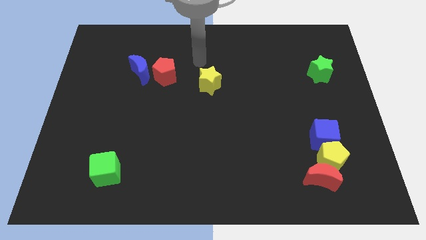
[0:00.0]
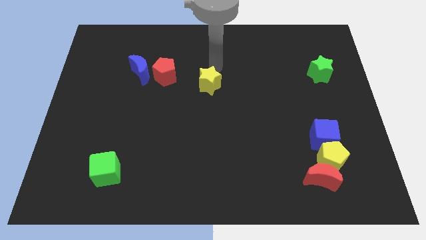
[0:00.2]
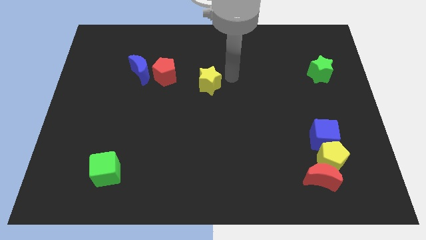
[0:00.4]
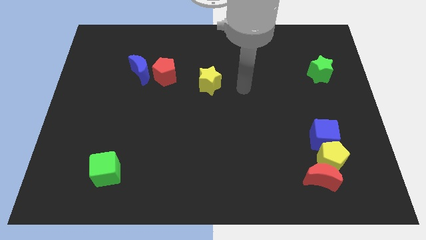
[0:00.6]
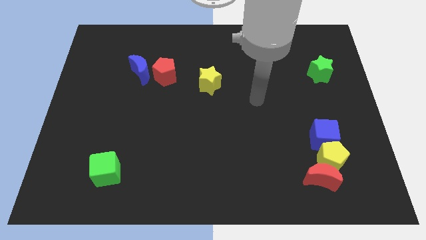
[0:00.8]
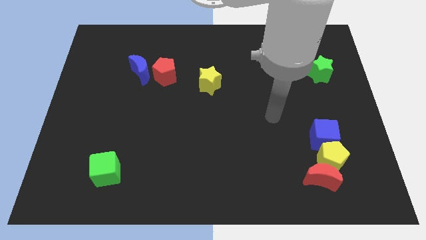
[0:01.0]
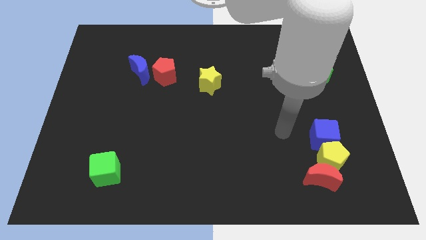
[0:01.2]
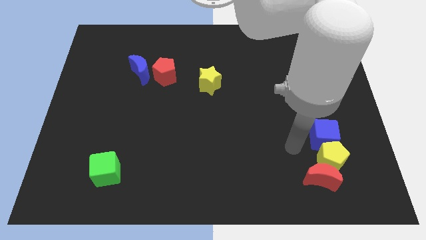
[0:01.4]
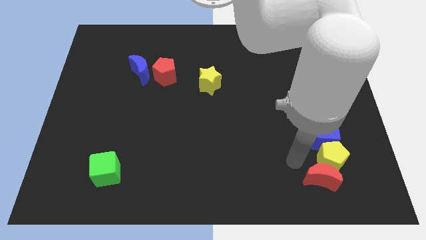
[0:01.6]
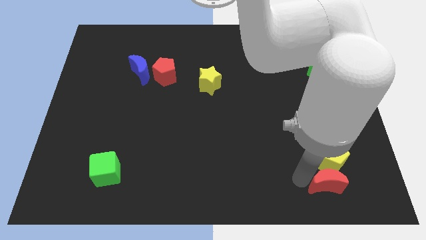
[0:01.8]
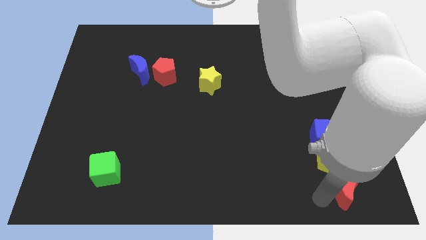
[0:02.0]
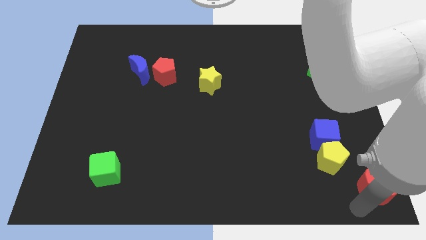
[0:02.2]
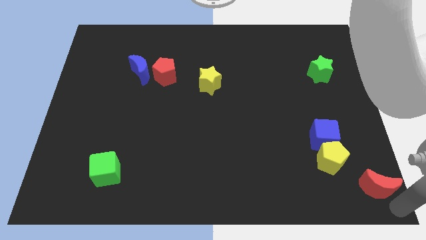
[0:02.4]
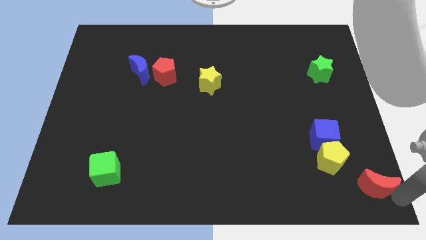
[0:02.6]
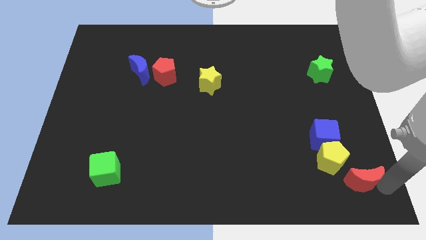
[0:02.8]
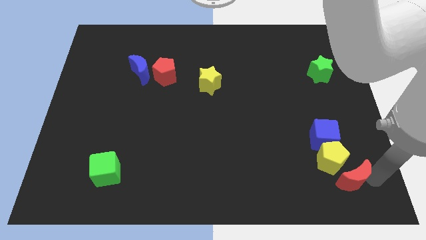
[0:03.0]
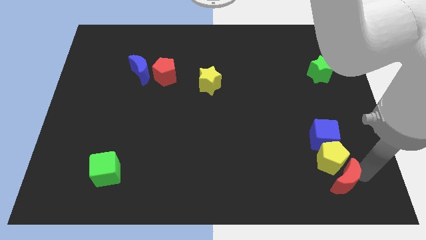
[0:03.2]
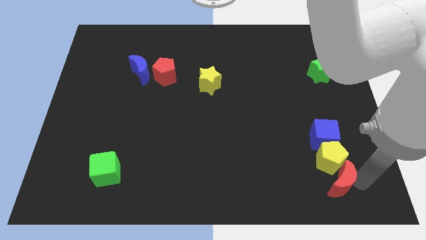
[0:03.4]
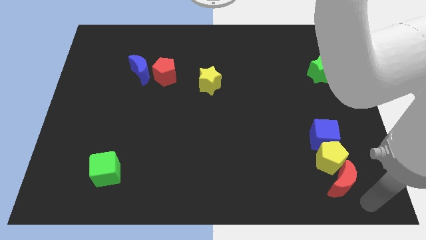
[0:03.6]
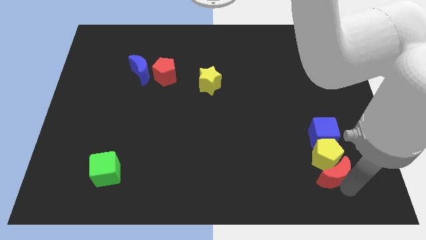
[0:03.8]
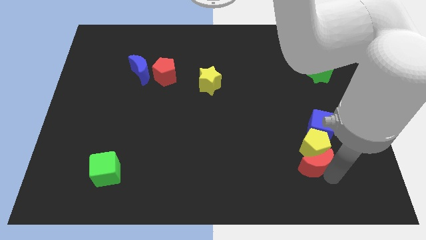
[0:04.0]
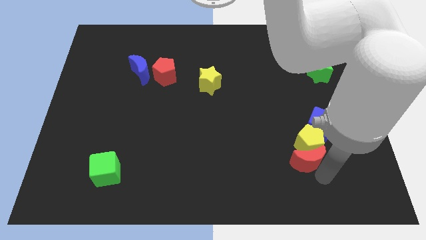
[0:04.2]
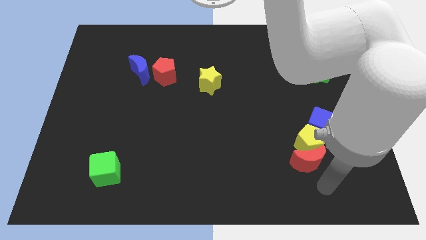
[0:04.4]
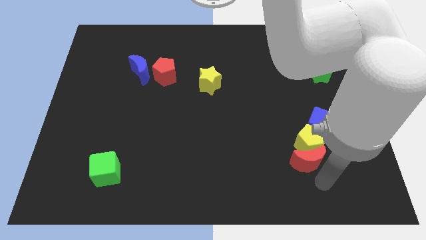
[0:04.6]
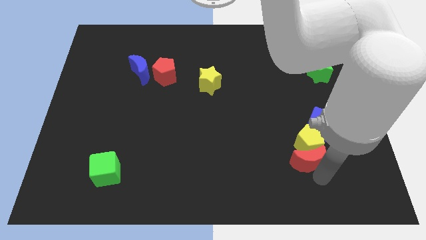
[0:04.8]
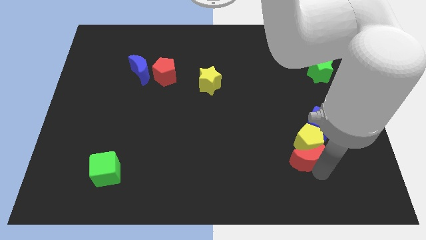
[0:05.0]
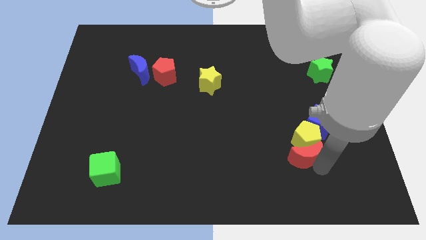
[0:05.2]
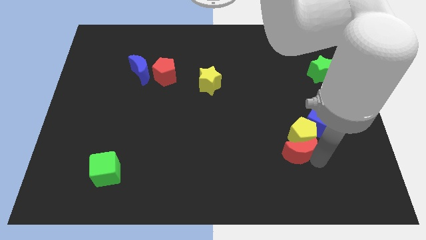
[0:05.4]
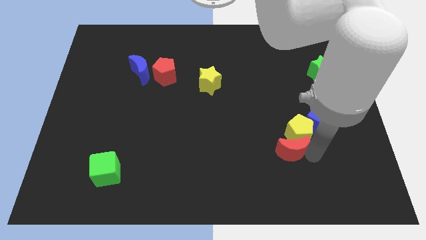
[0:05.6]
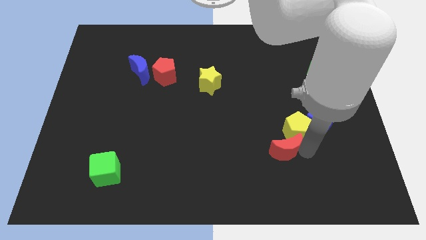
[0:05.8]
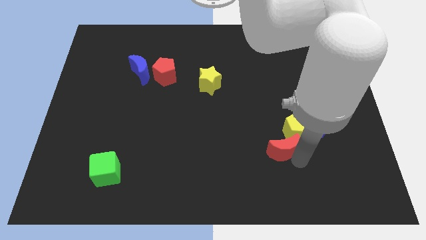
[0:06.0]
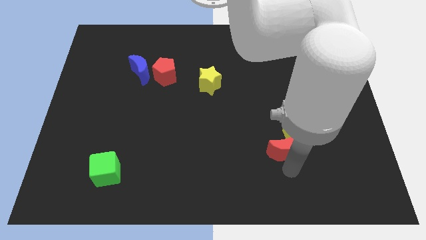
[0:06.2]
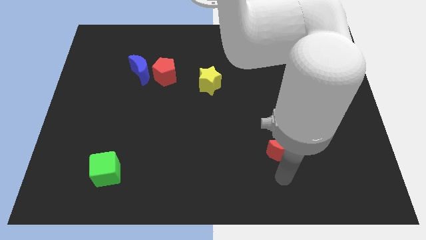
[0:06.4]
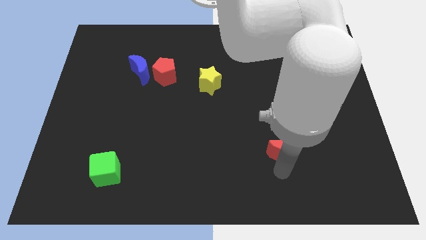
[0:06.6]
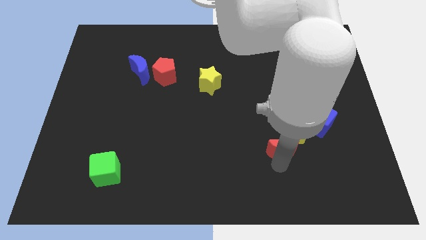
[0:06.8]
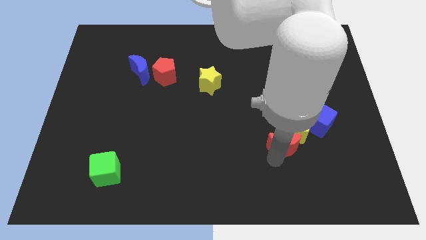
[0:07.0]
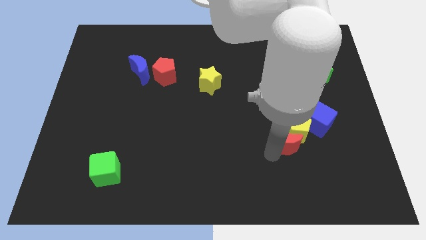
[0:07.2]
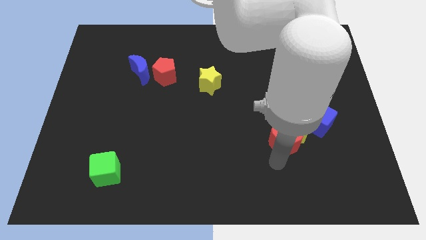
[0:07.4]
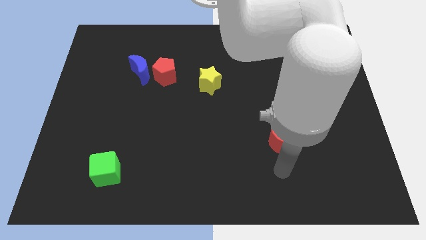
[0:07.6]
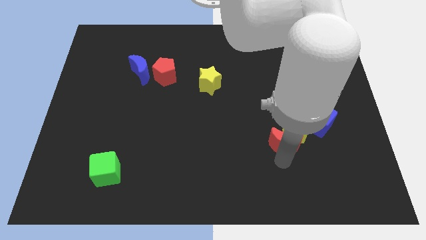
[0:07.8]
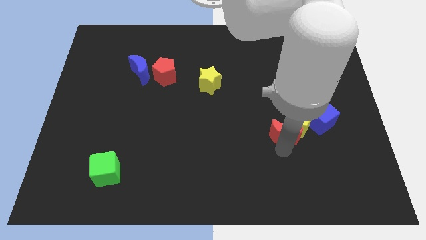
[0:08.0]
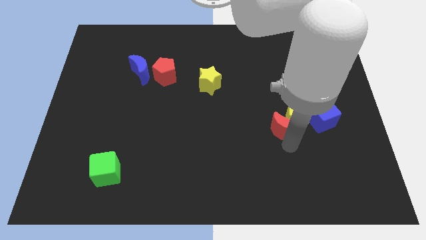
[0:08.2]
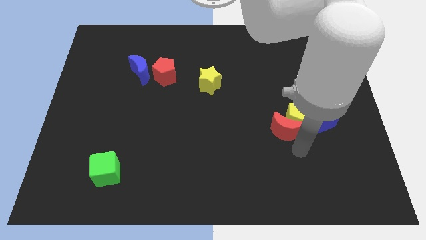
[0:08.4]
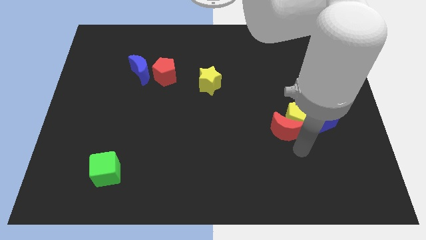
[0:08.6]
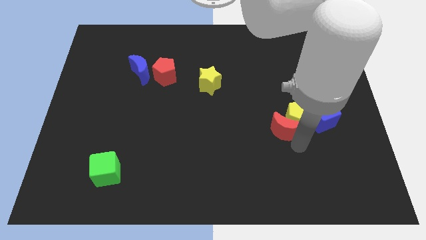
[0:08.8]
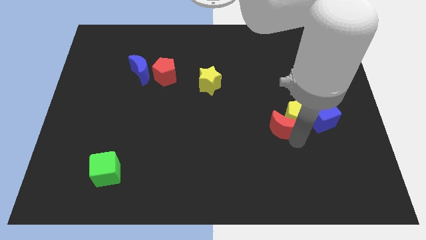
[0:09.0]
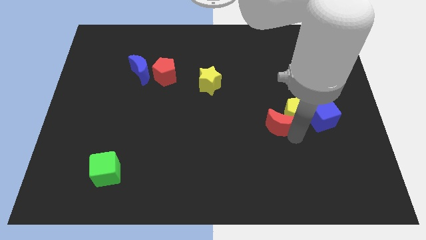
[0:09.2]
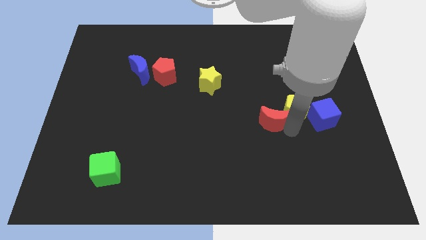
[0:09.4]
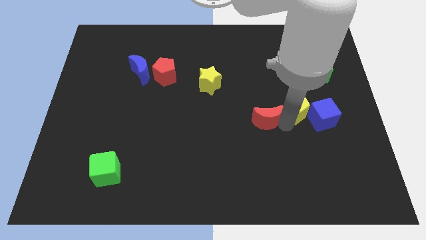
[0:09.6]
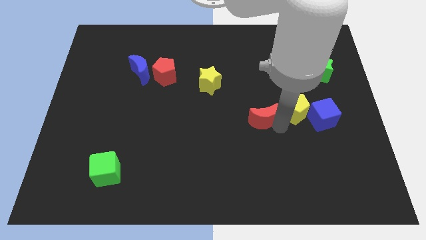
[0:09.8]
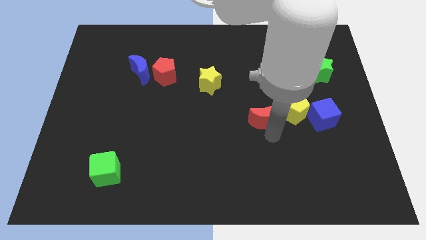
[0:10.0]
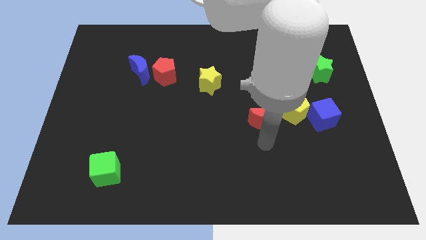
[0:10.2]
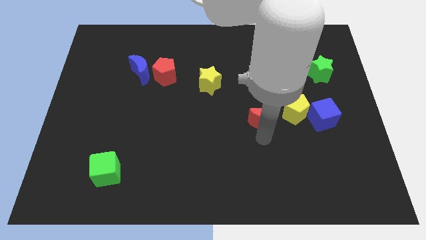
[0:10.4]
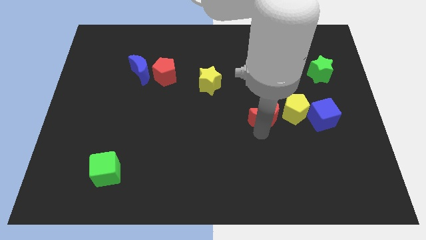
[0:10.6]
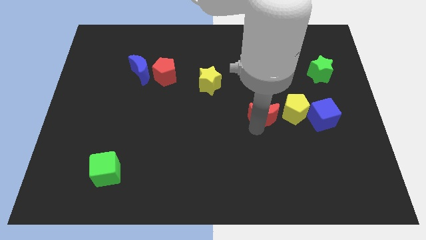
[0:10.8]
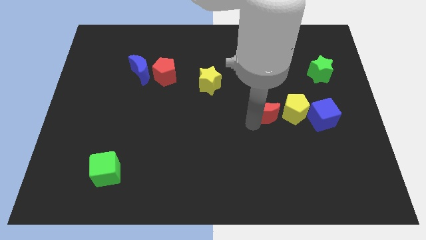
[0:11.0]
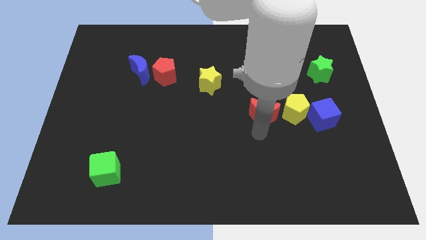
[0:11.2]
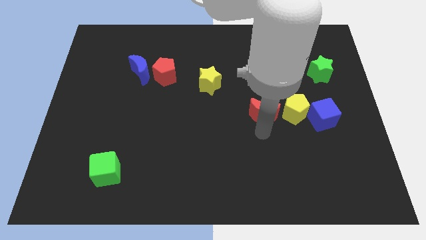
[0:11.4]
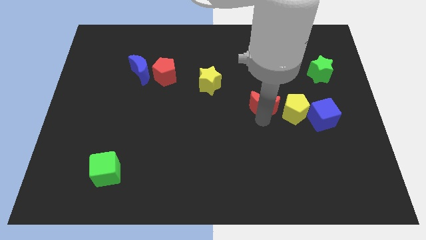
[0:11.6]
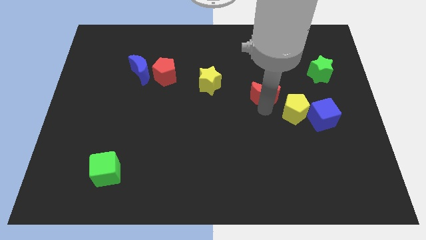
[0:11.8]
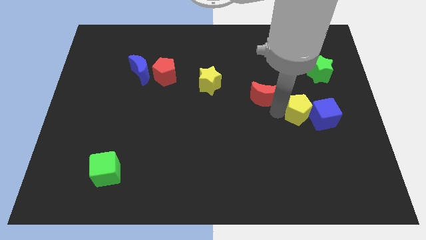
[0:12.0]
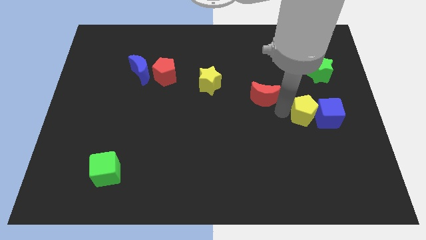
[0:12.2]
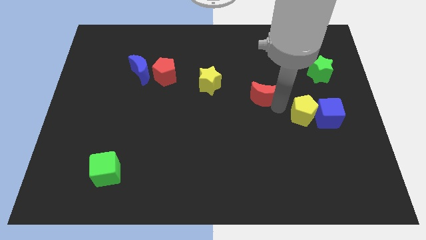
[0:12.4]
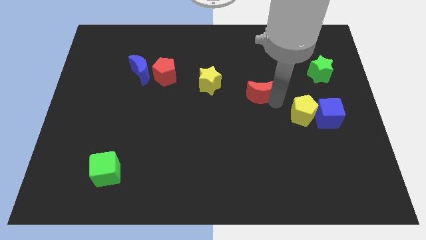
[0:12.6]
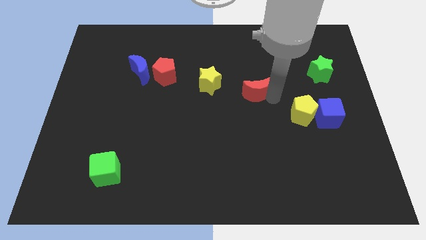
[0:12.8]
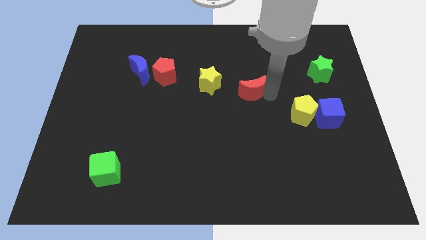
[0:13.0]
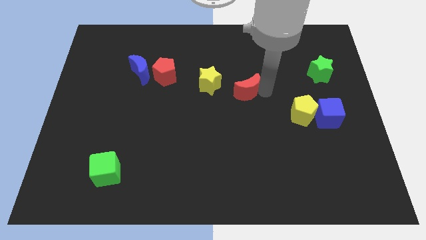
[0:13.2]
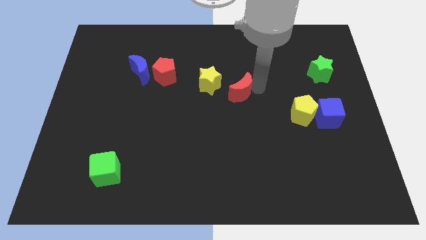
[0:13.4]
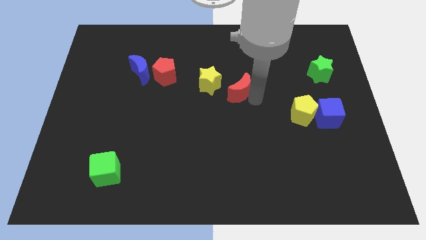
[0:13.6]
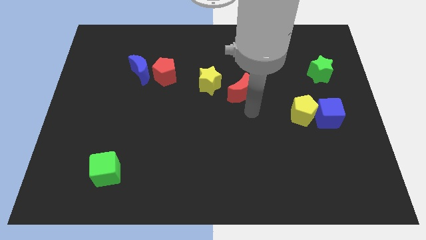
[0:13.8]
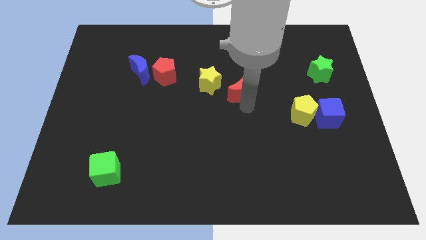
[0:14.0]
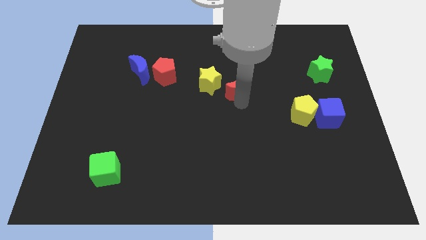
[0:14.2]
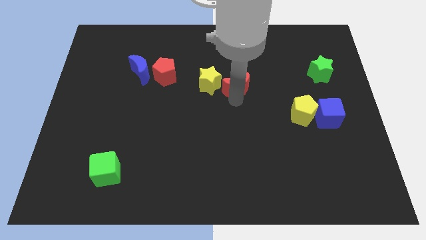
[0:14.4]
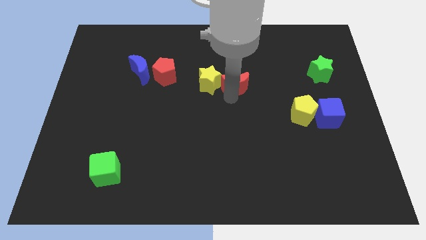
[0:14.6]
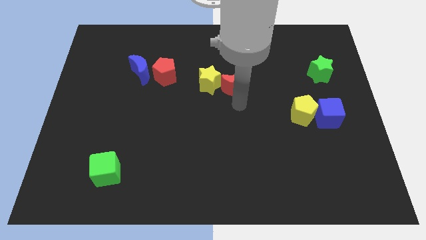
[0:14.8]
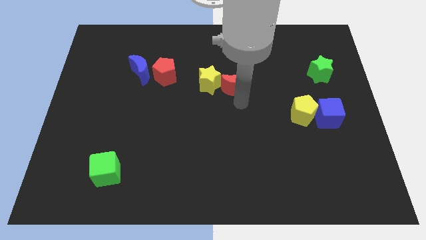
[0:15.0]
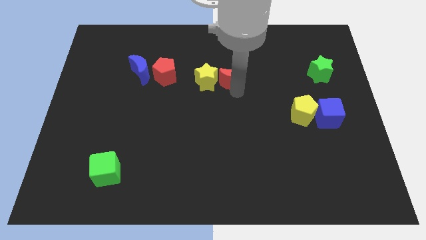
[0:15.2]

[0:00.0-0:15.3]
push the red moon diagonally up and to the right of the yellow star
